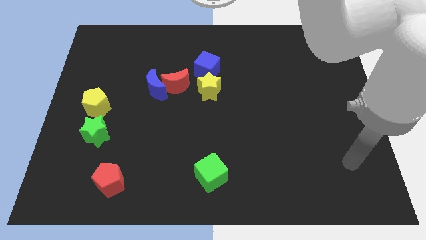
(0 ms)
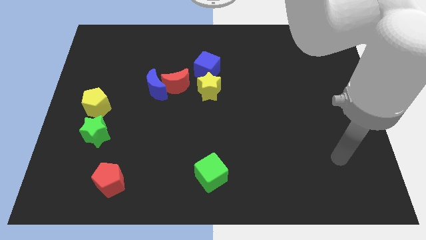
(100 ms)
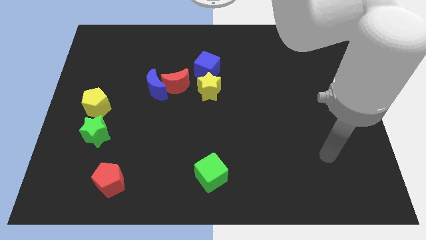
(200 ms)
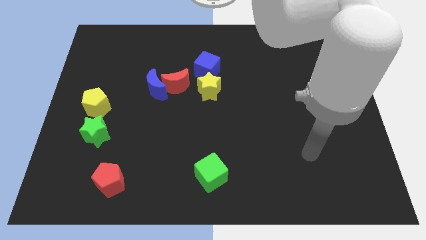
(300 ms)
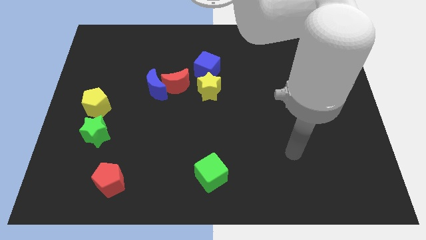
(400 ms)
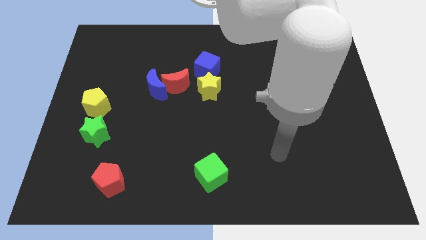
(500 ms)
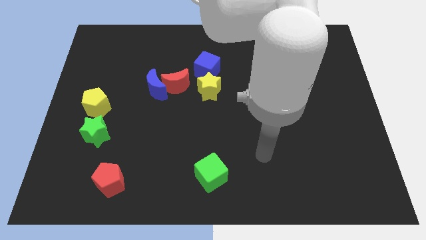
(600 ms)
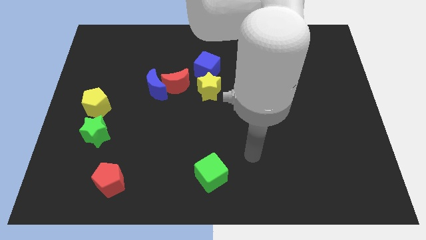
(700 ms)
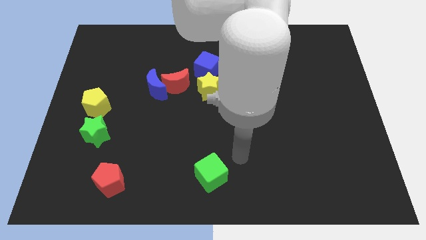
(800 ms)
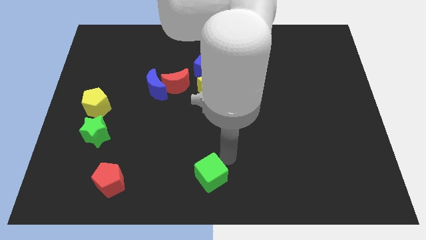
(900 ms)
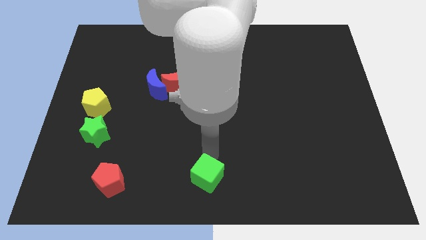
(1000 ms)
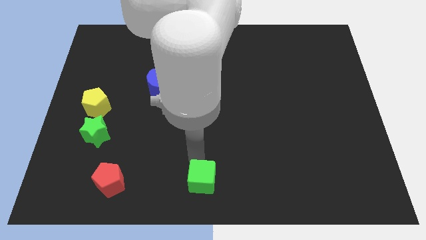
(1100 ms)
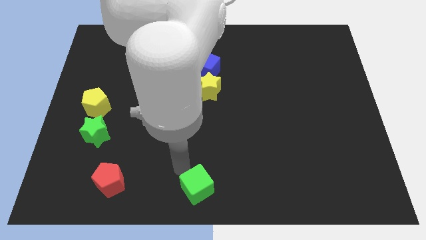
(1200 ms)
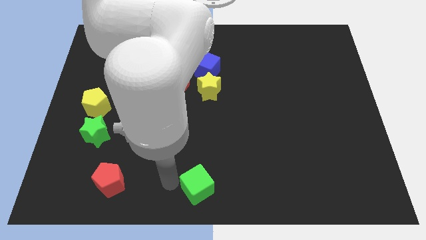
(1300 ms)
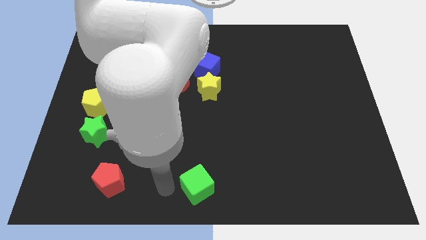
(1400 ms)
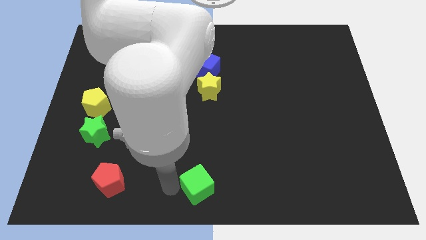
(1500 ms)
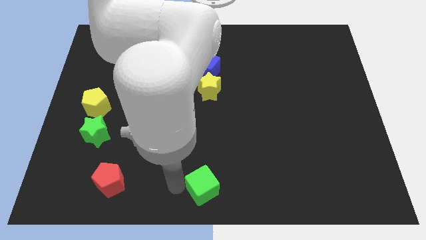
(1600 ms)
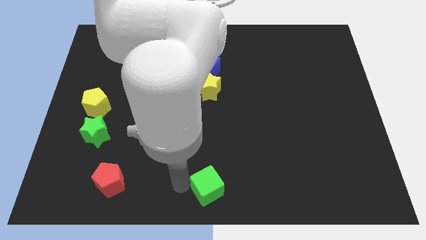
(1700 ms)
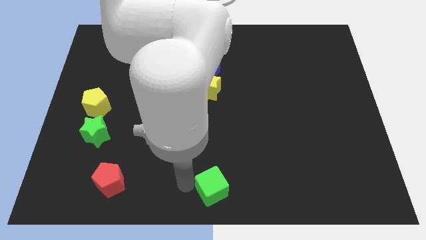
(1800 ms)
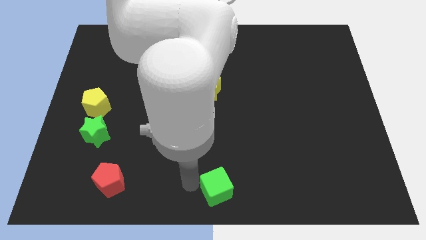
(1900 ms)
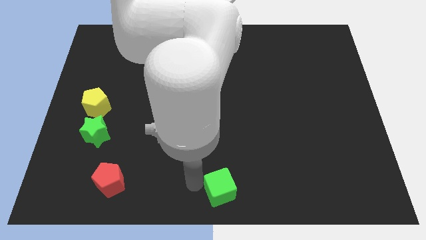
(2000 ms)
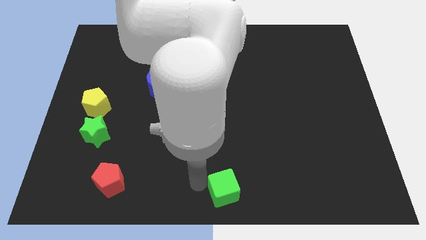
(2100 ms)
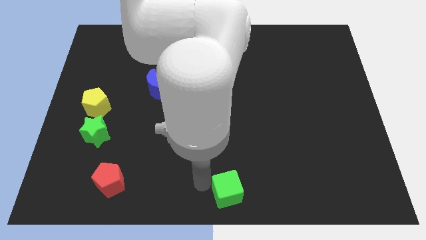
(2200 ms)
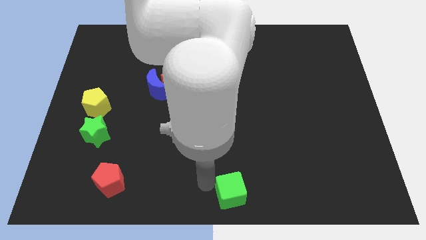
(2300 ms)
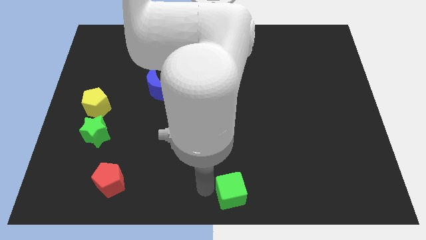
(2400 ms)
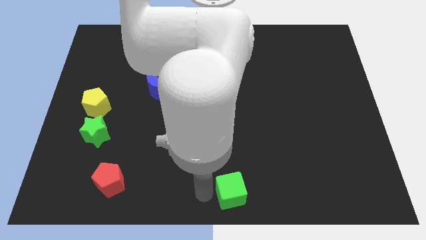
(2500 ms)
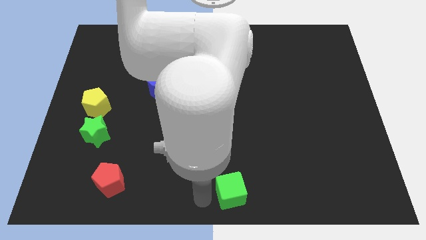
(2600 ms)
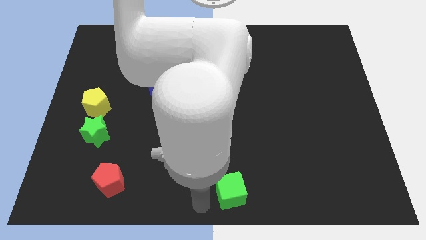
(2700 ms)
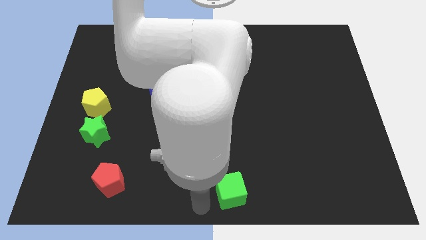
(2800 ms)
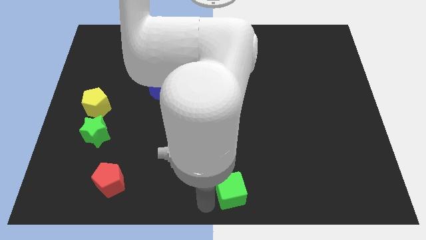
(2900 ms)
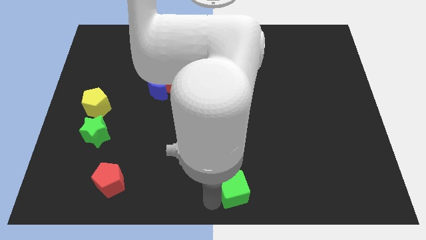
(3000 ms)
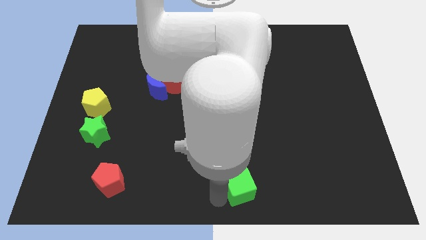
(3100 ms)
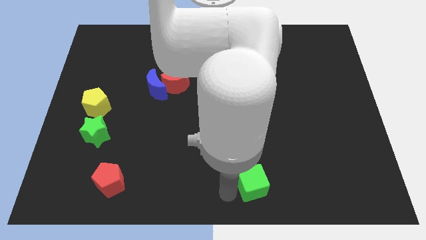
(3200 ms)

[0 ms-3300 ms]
slide the green cube a little bit right

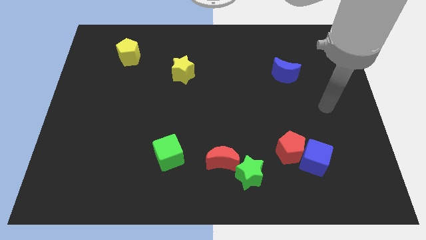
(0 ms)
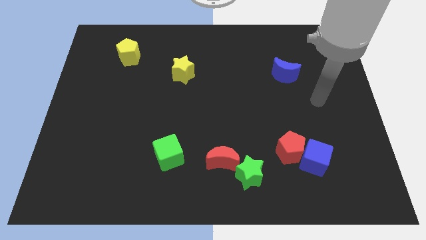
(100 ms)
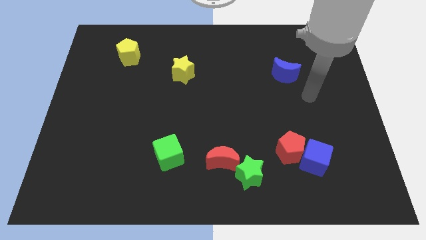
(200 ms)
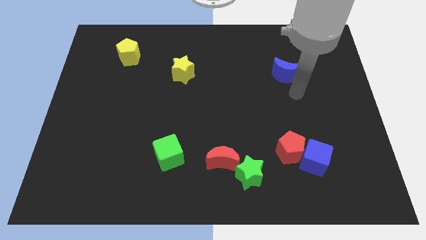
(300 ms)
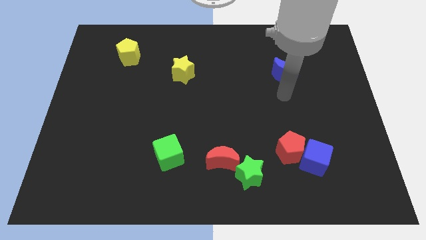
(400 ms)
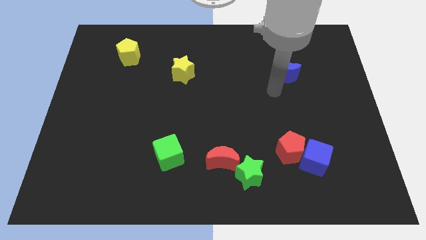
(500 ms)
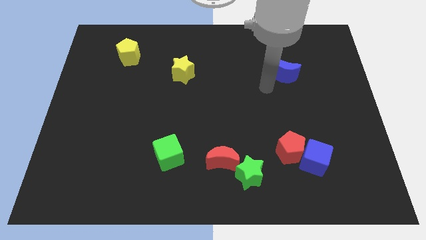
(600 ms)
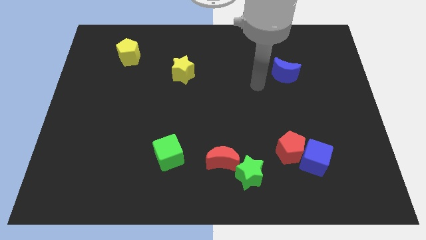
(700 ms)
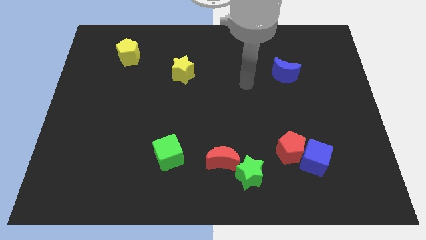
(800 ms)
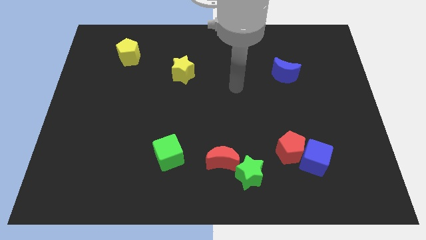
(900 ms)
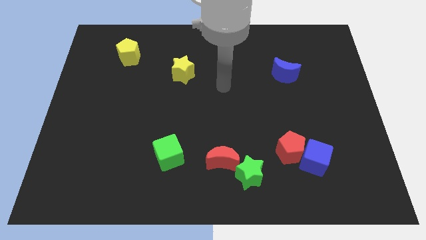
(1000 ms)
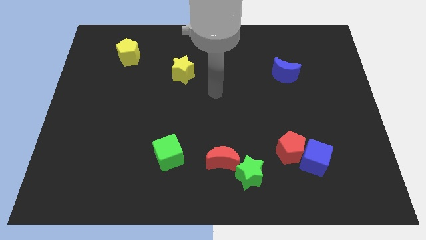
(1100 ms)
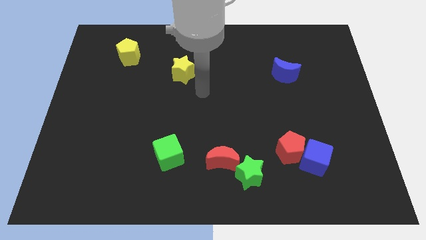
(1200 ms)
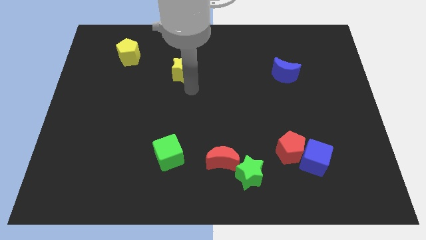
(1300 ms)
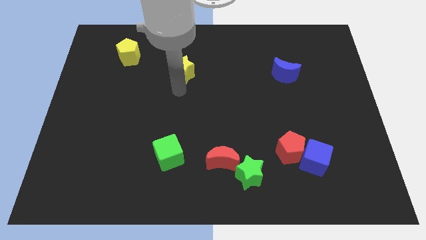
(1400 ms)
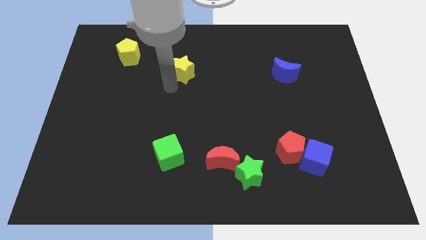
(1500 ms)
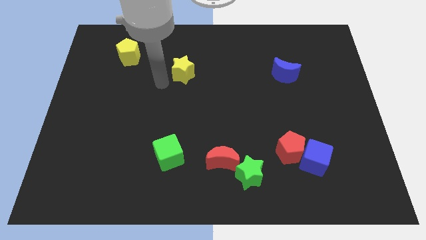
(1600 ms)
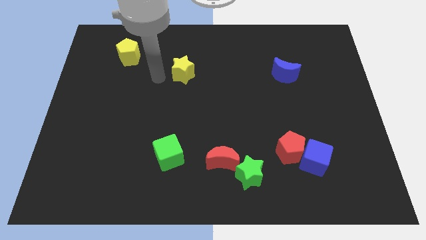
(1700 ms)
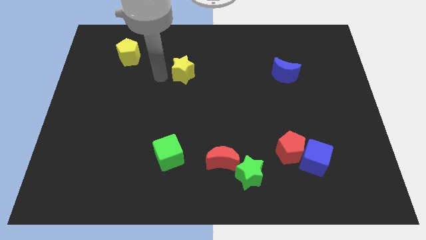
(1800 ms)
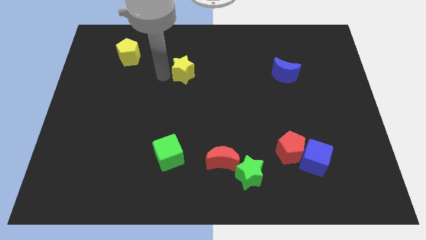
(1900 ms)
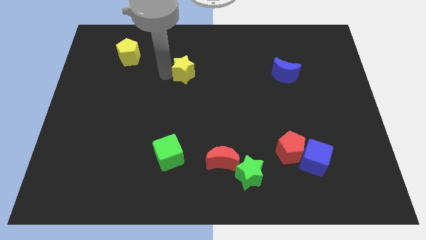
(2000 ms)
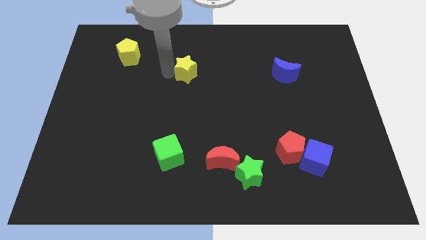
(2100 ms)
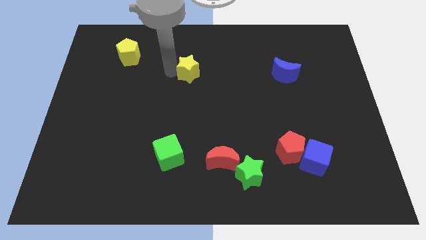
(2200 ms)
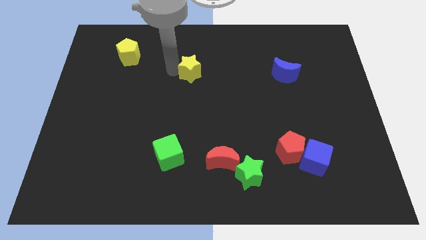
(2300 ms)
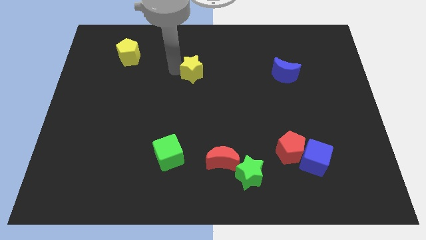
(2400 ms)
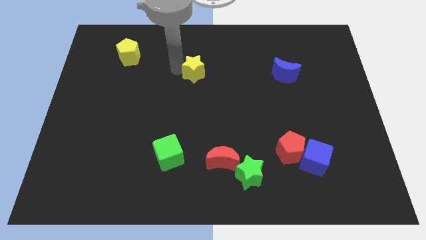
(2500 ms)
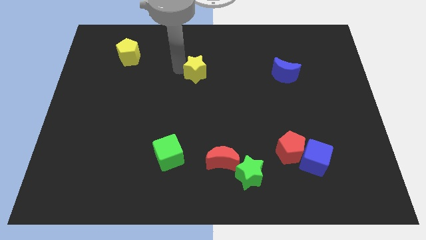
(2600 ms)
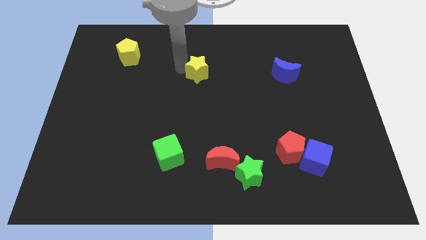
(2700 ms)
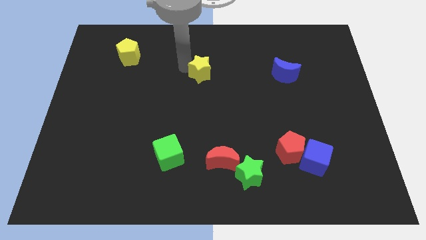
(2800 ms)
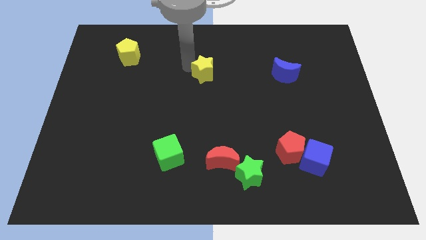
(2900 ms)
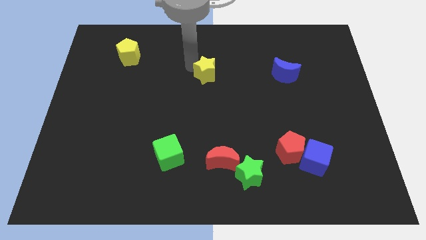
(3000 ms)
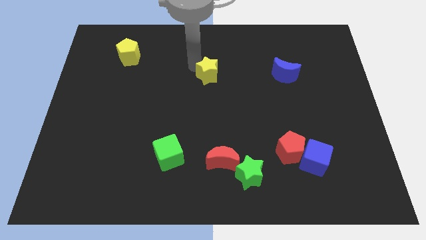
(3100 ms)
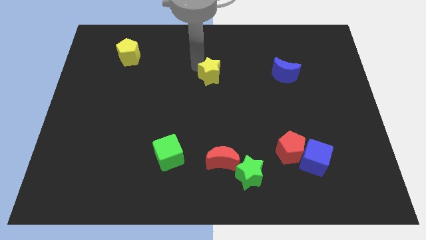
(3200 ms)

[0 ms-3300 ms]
push the yellow star to the right a little bit

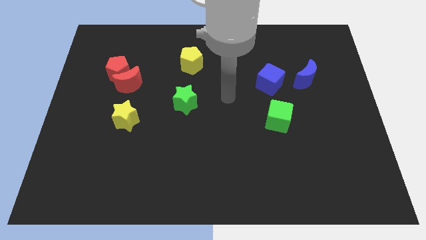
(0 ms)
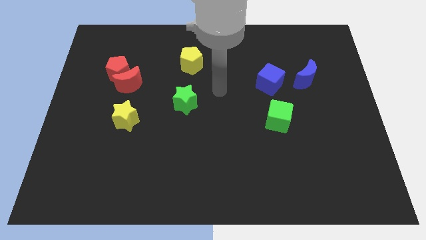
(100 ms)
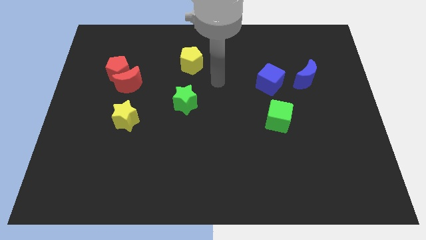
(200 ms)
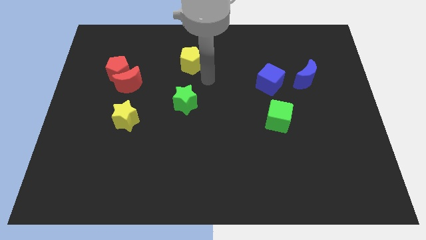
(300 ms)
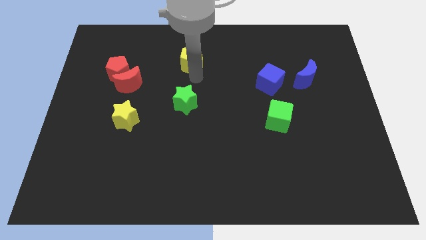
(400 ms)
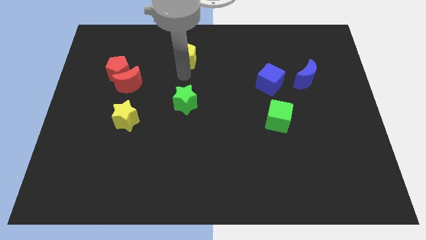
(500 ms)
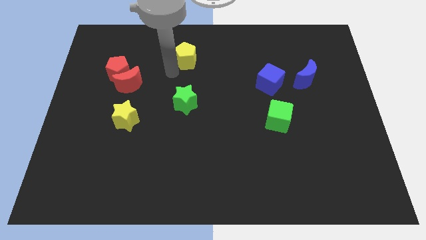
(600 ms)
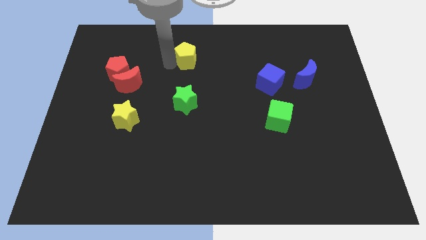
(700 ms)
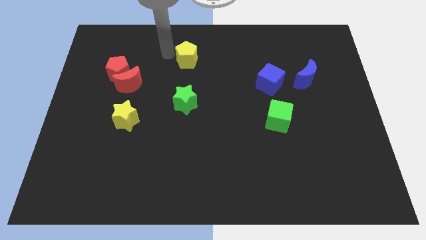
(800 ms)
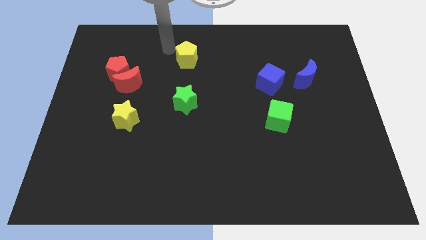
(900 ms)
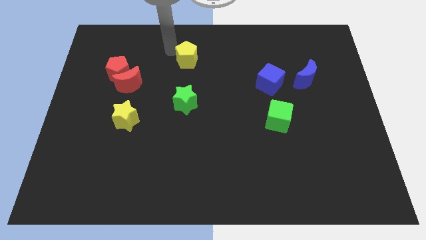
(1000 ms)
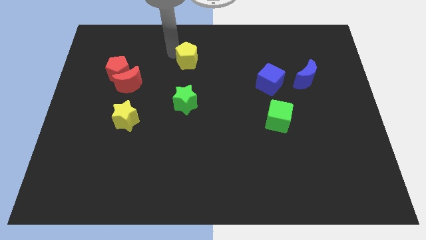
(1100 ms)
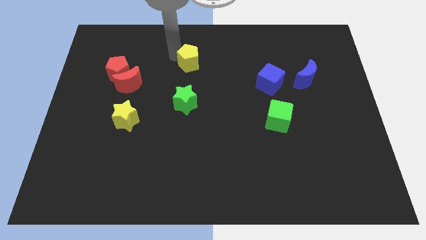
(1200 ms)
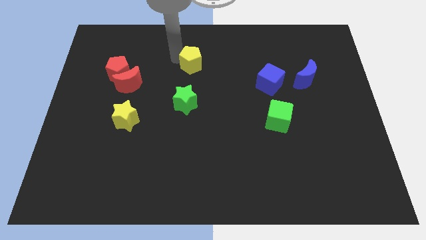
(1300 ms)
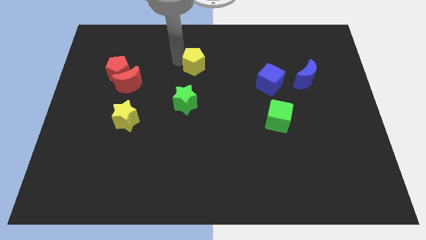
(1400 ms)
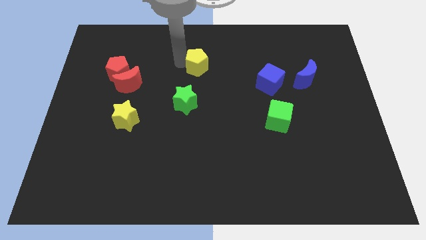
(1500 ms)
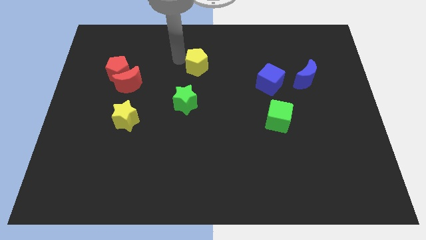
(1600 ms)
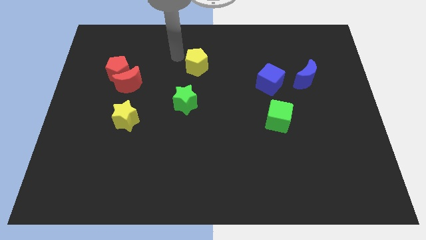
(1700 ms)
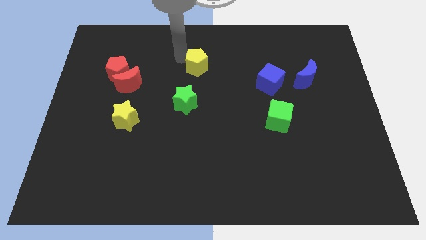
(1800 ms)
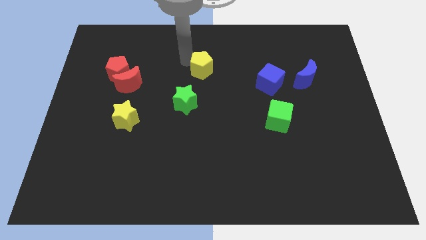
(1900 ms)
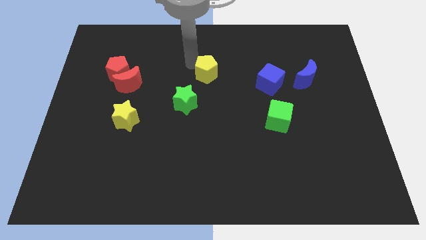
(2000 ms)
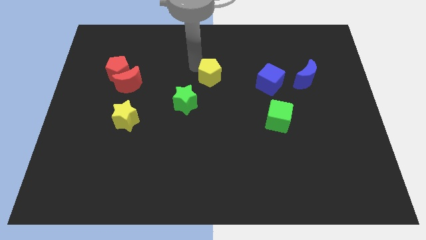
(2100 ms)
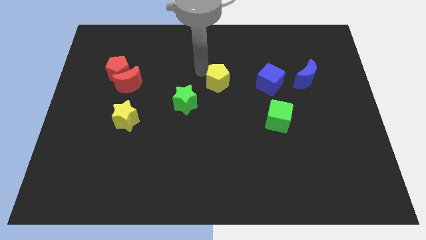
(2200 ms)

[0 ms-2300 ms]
move the yellow pentagon diagonally downwards and right a little bit
